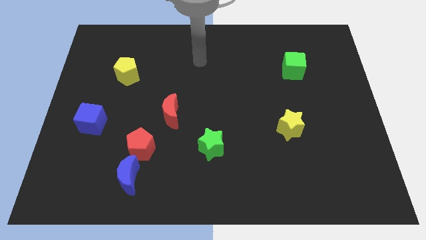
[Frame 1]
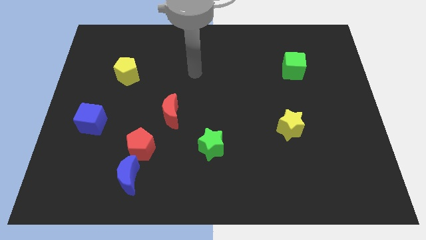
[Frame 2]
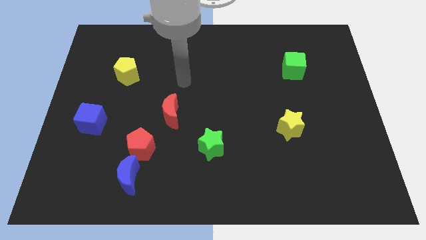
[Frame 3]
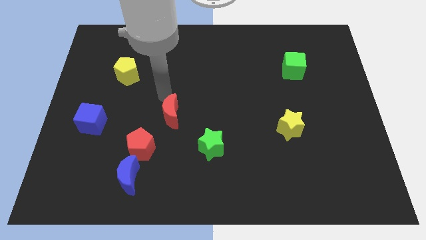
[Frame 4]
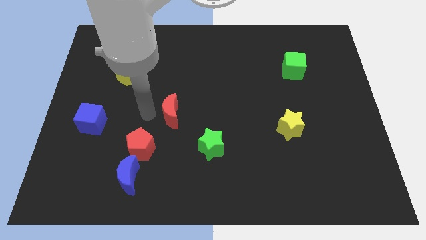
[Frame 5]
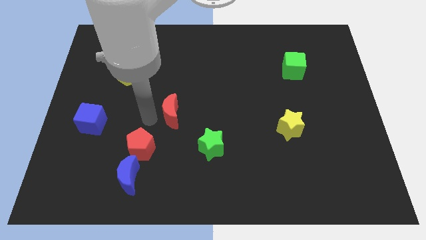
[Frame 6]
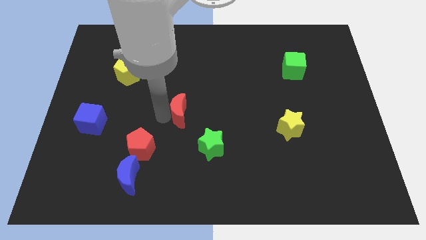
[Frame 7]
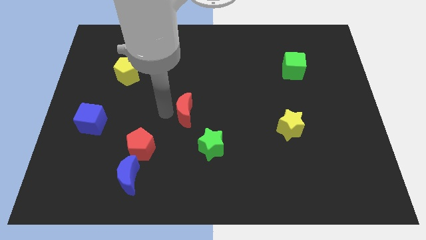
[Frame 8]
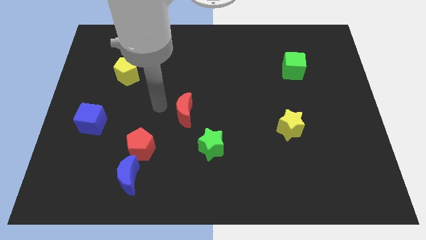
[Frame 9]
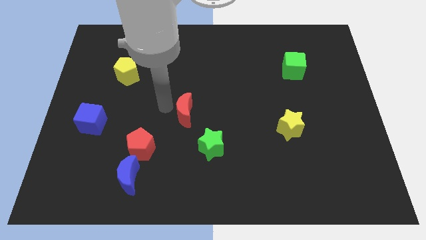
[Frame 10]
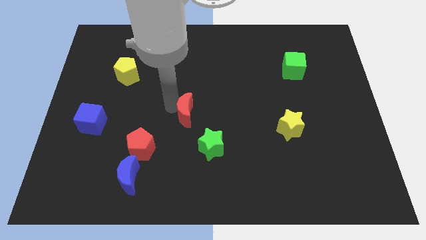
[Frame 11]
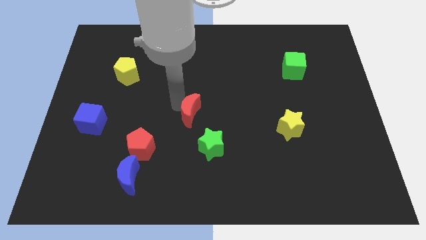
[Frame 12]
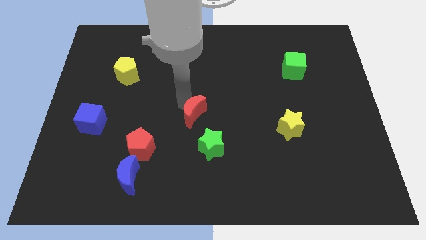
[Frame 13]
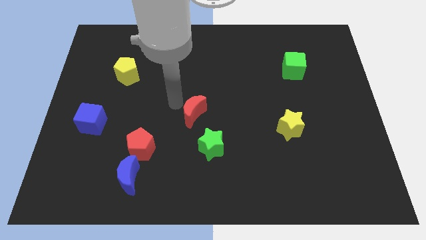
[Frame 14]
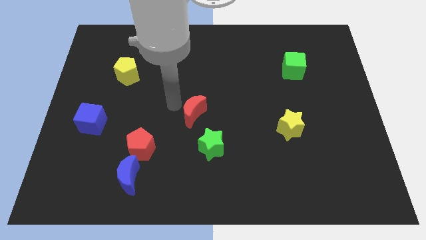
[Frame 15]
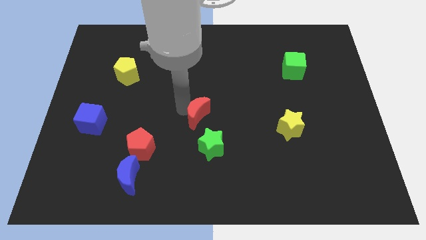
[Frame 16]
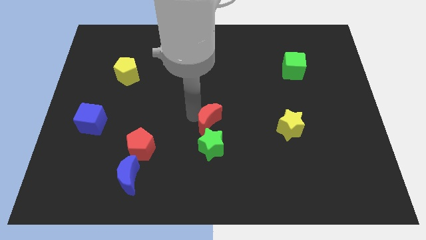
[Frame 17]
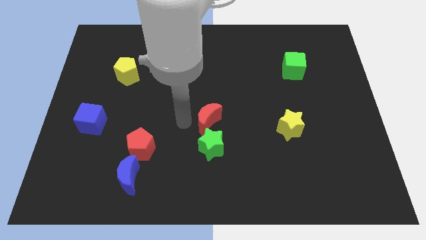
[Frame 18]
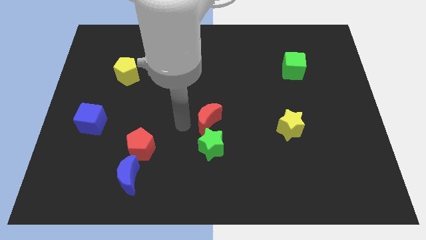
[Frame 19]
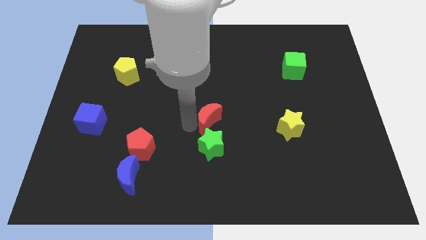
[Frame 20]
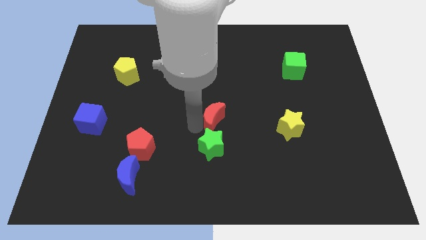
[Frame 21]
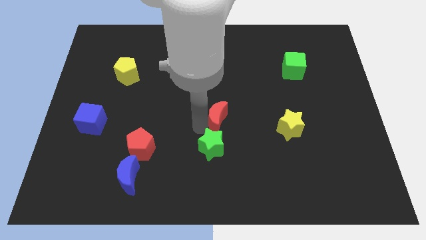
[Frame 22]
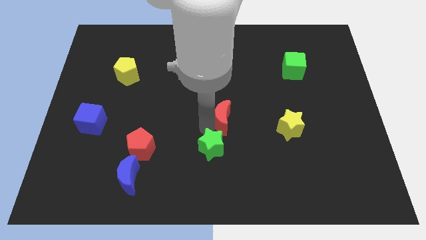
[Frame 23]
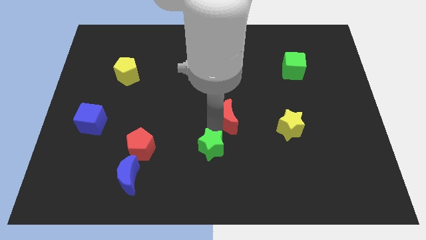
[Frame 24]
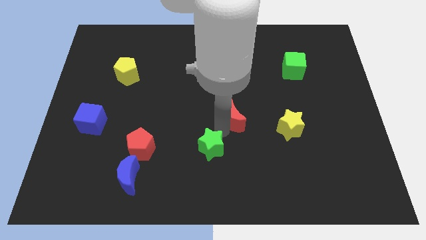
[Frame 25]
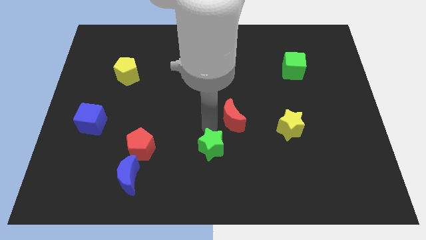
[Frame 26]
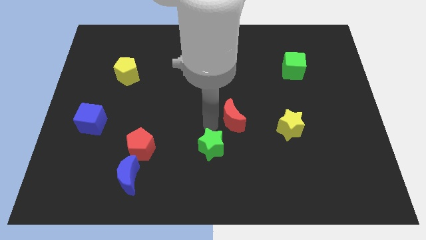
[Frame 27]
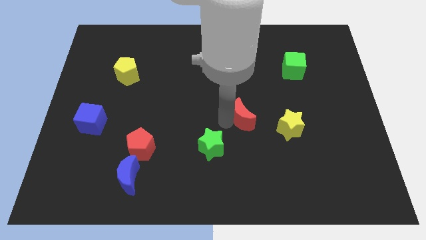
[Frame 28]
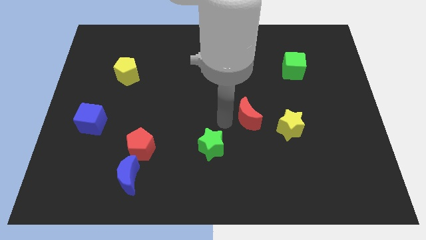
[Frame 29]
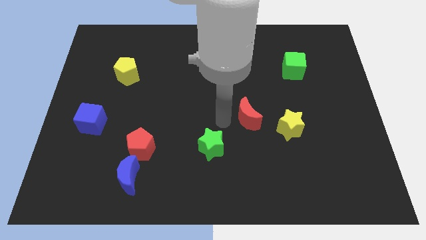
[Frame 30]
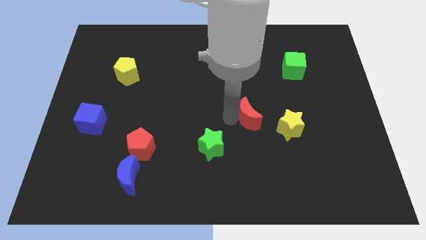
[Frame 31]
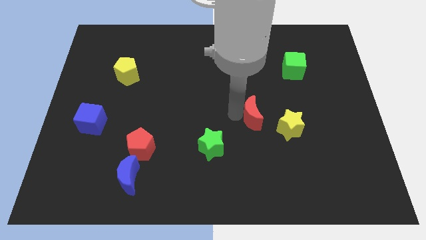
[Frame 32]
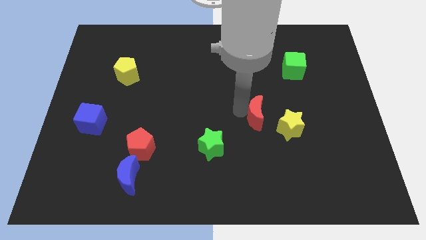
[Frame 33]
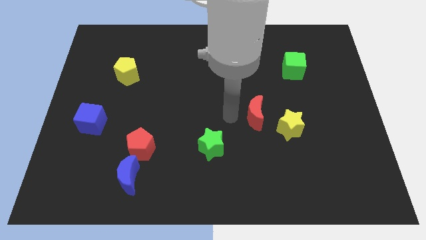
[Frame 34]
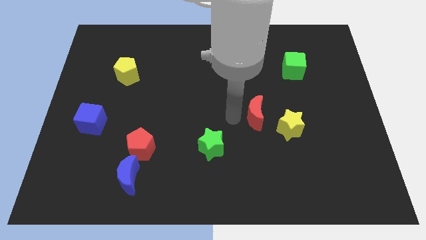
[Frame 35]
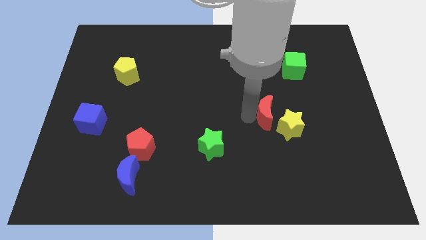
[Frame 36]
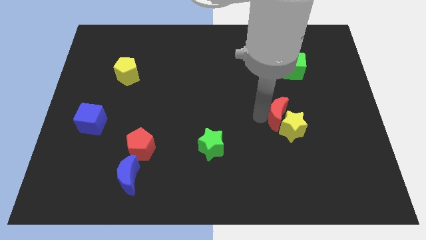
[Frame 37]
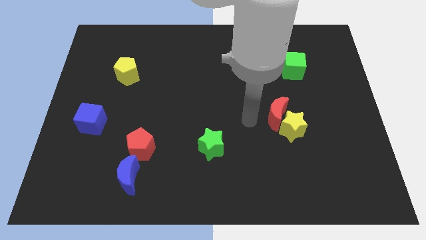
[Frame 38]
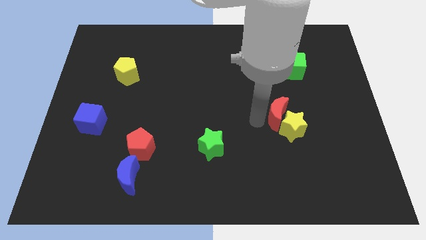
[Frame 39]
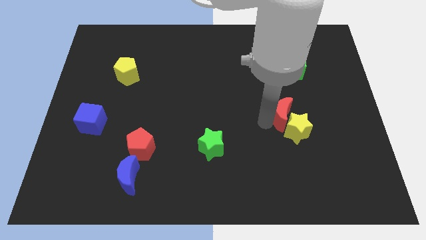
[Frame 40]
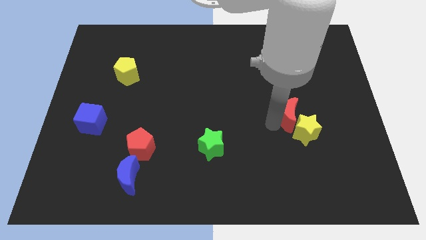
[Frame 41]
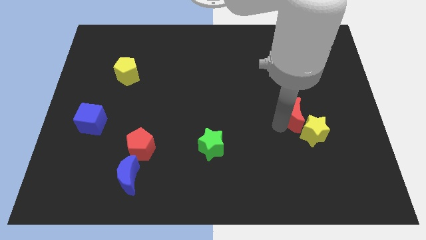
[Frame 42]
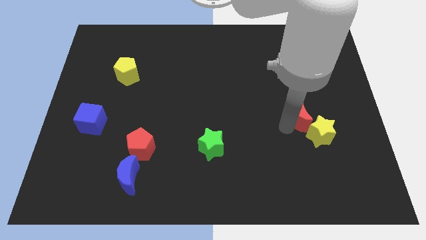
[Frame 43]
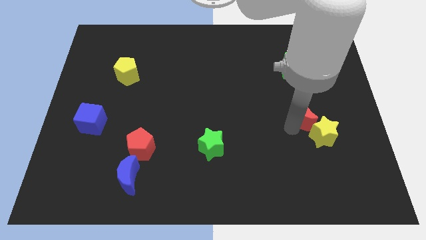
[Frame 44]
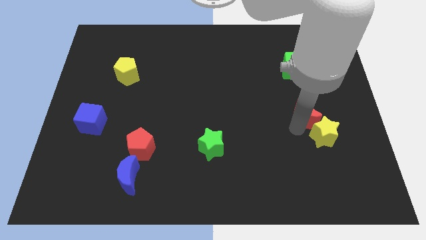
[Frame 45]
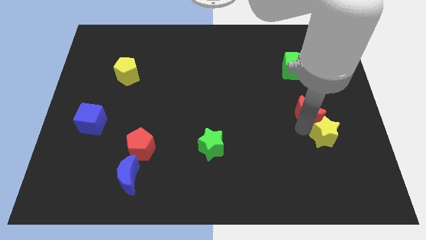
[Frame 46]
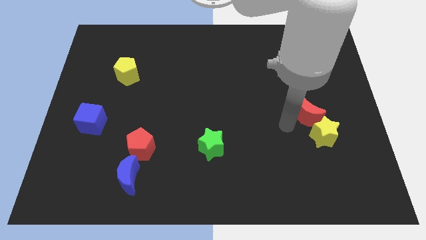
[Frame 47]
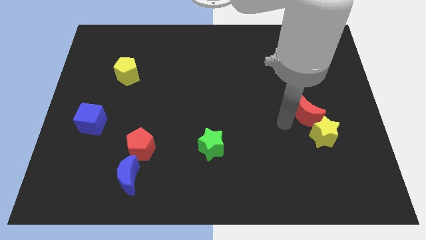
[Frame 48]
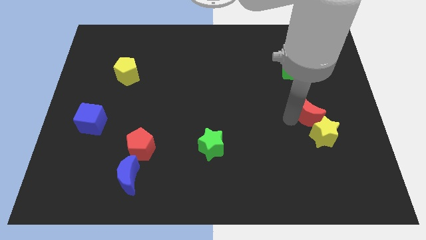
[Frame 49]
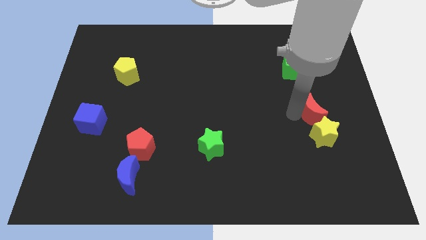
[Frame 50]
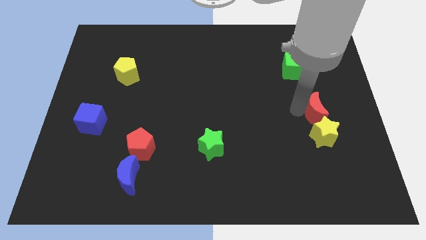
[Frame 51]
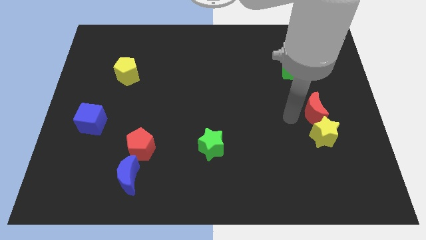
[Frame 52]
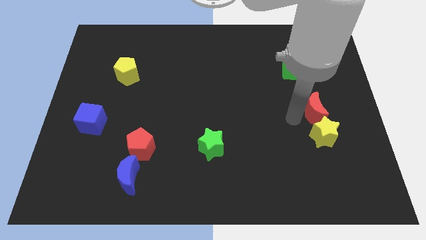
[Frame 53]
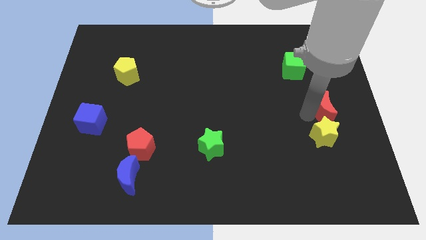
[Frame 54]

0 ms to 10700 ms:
move the red moon to the right side
